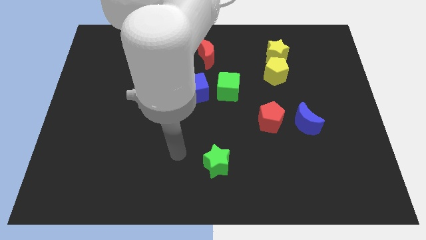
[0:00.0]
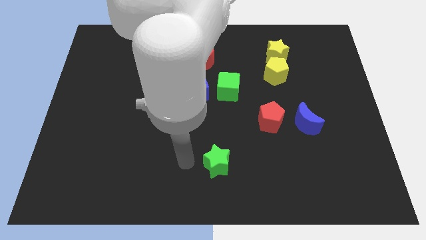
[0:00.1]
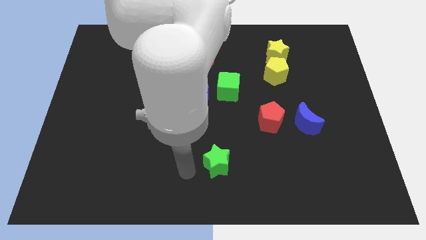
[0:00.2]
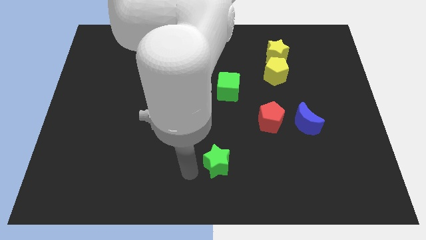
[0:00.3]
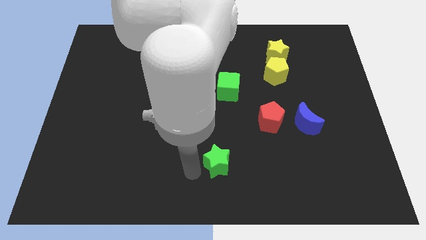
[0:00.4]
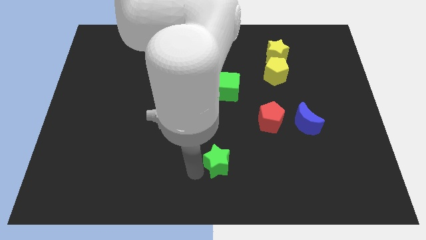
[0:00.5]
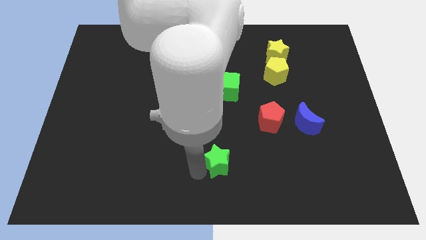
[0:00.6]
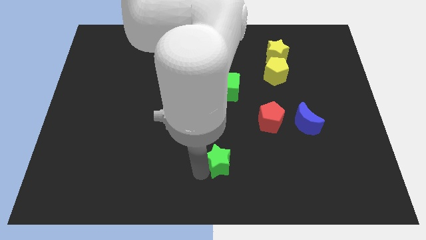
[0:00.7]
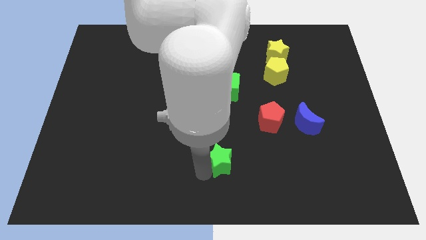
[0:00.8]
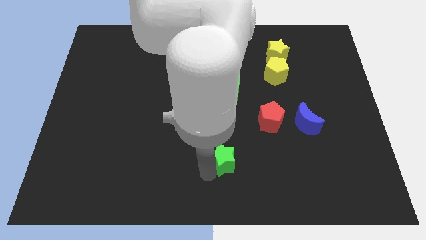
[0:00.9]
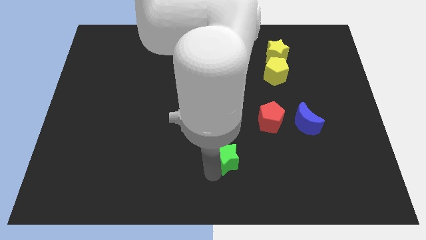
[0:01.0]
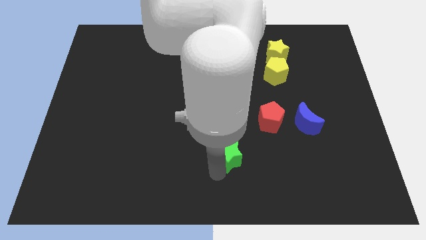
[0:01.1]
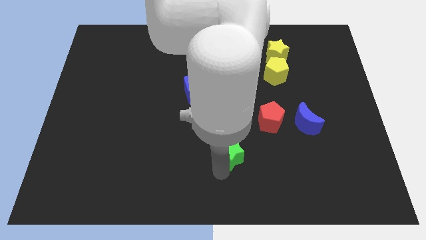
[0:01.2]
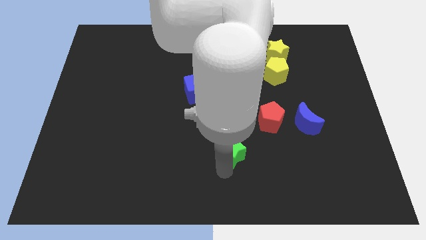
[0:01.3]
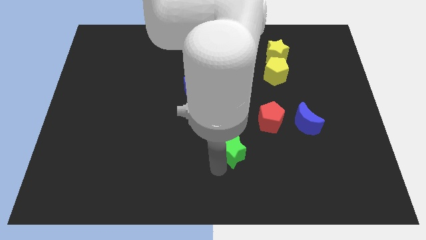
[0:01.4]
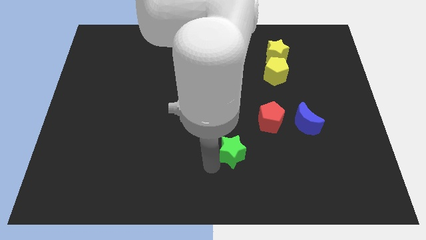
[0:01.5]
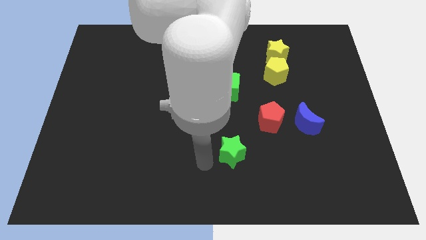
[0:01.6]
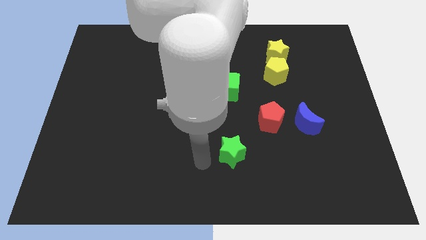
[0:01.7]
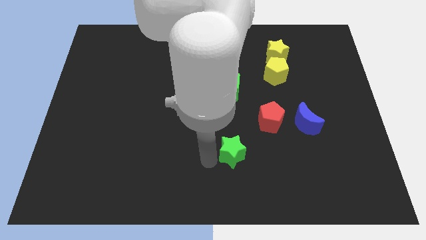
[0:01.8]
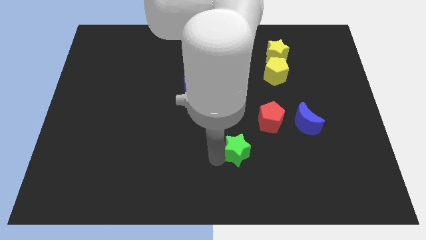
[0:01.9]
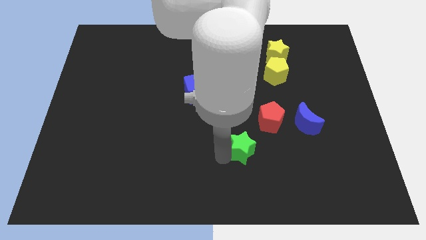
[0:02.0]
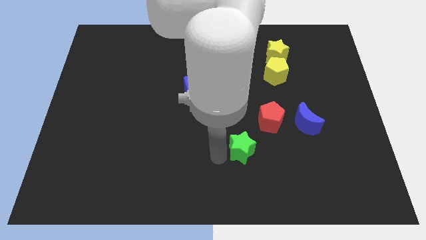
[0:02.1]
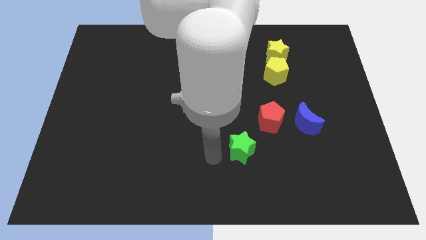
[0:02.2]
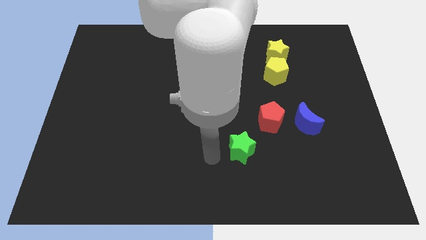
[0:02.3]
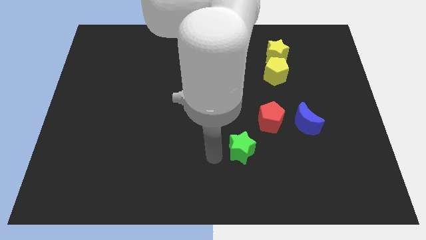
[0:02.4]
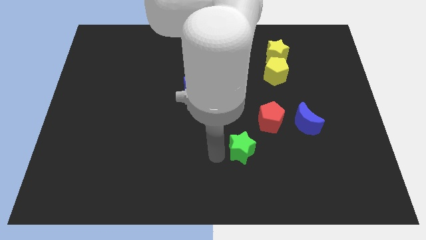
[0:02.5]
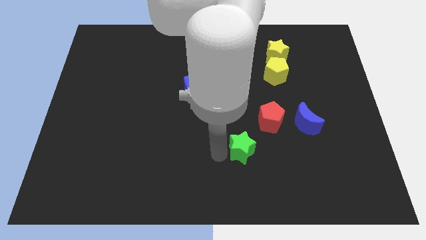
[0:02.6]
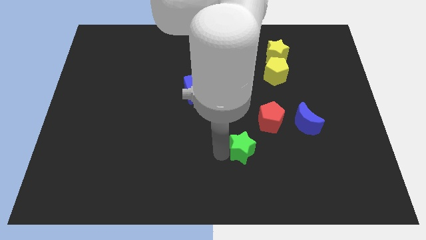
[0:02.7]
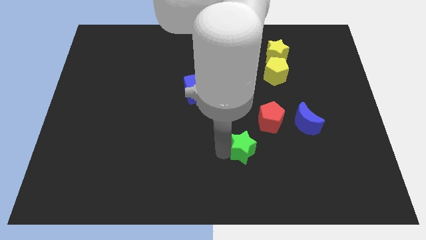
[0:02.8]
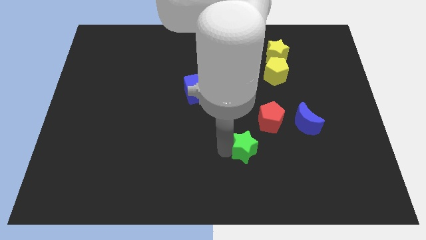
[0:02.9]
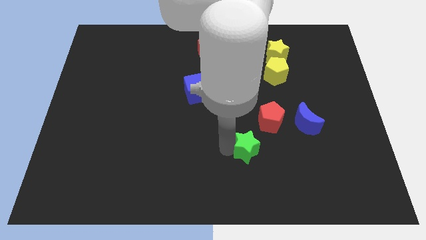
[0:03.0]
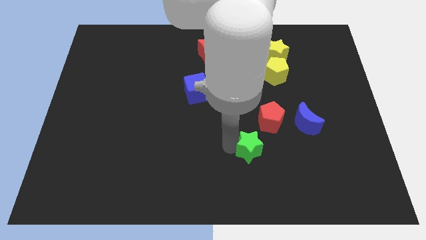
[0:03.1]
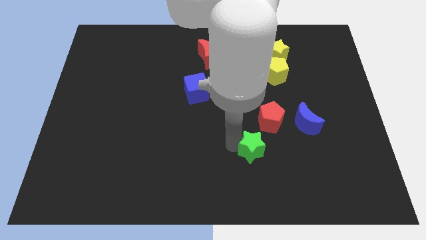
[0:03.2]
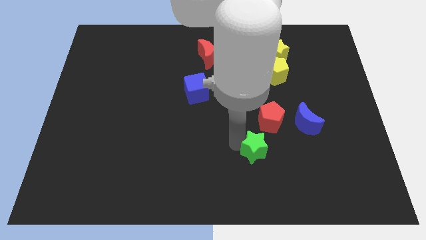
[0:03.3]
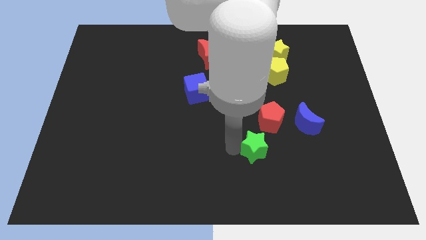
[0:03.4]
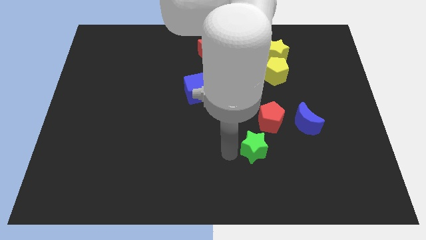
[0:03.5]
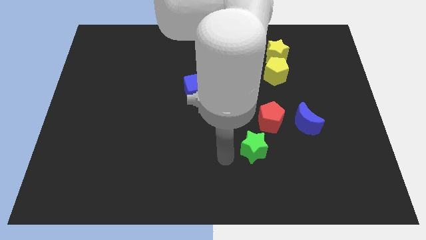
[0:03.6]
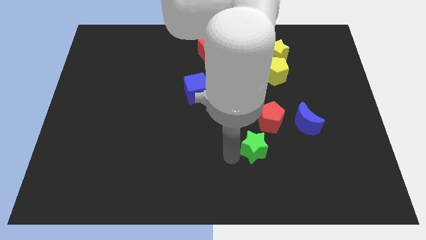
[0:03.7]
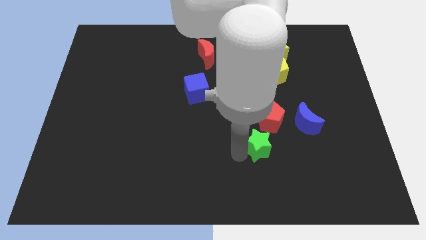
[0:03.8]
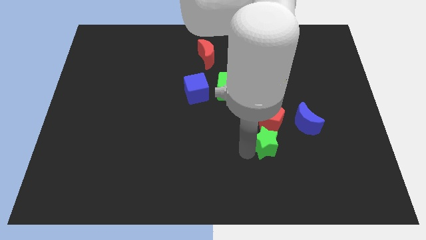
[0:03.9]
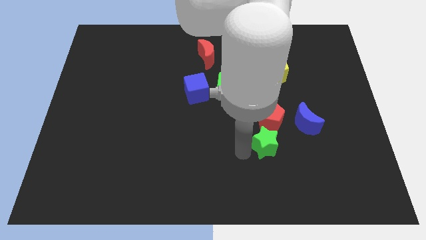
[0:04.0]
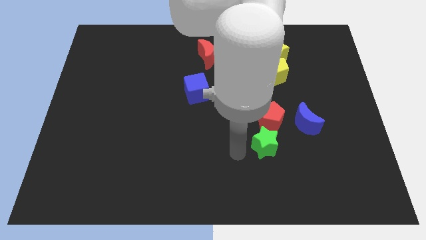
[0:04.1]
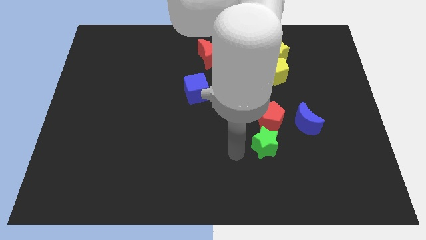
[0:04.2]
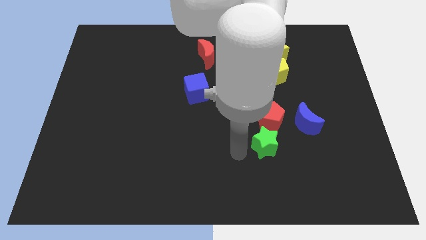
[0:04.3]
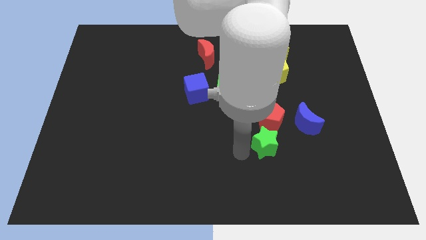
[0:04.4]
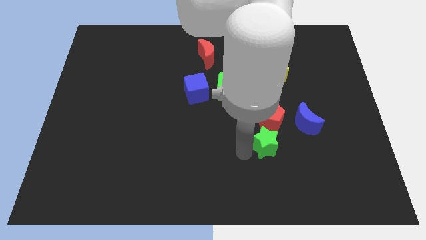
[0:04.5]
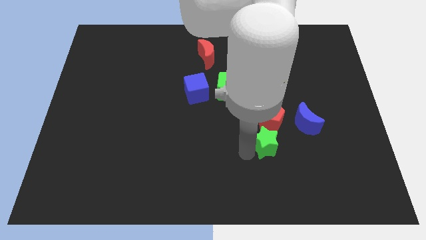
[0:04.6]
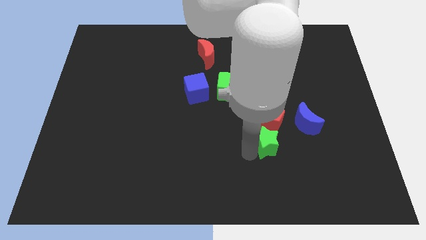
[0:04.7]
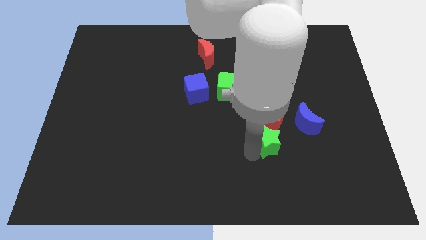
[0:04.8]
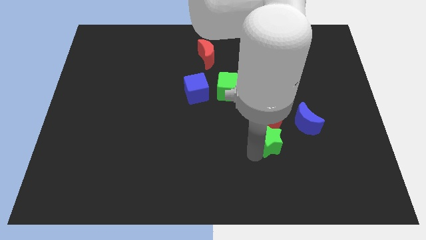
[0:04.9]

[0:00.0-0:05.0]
move the green star diagonally down and to the right of the red pentagon

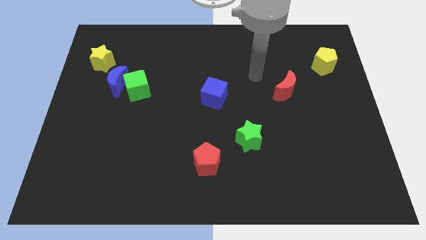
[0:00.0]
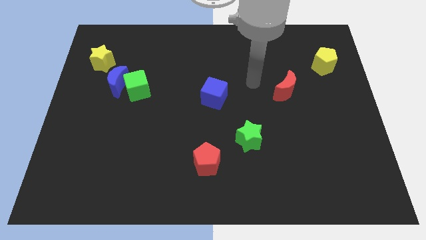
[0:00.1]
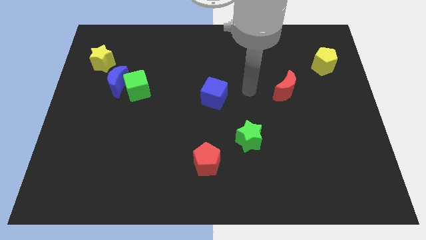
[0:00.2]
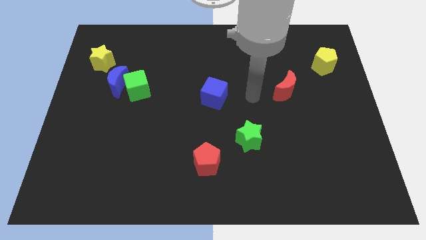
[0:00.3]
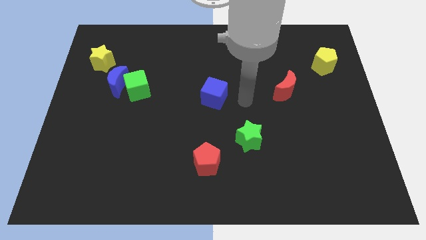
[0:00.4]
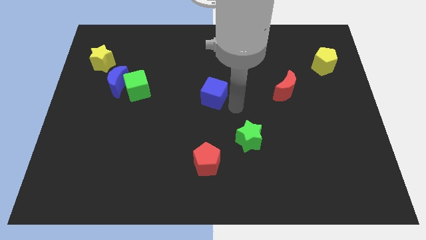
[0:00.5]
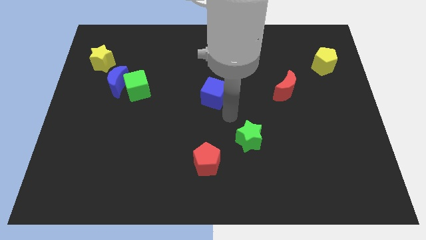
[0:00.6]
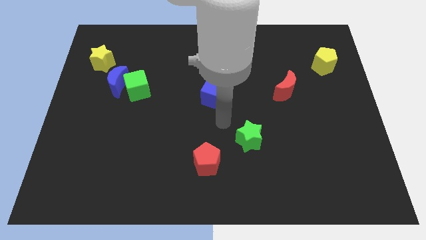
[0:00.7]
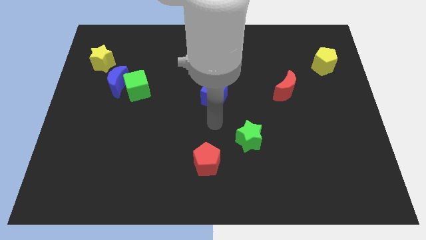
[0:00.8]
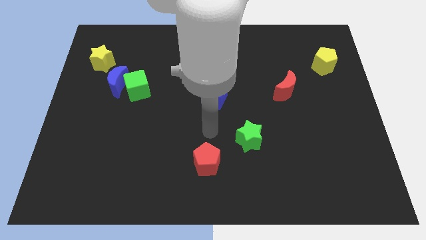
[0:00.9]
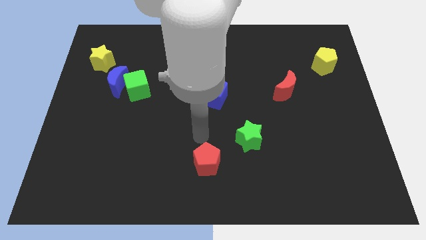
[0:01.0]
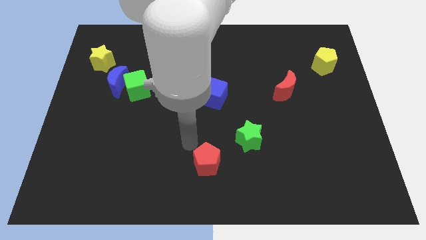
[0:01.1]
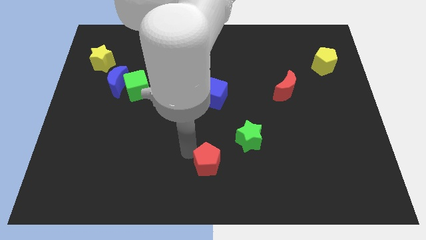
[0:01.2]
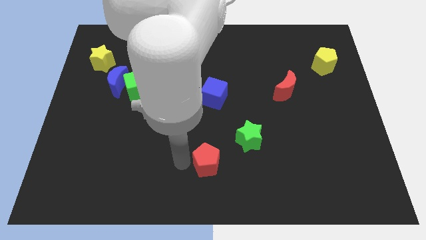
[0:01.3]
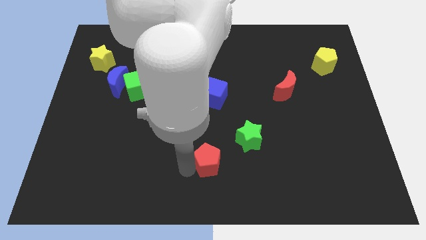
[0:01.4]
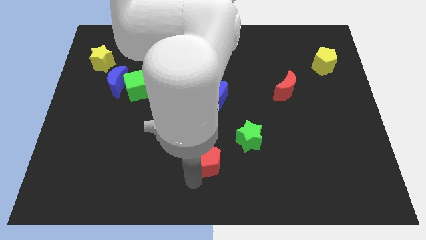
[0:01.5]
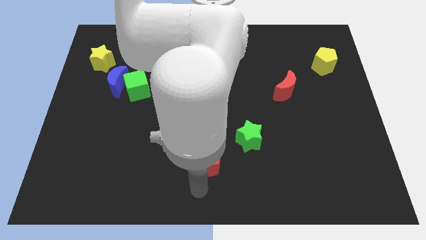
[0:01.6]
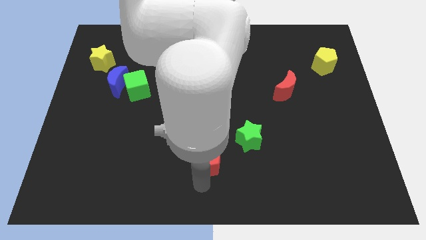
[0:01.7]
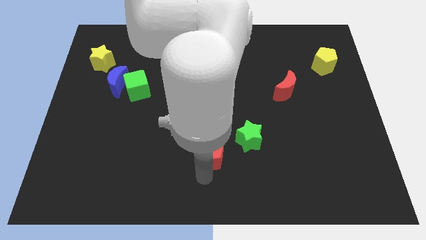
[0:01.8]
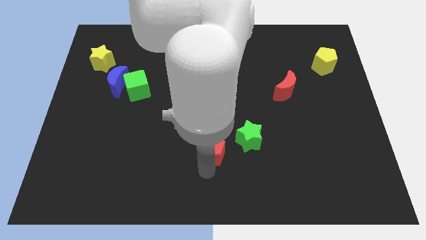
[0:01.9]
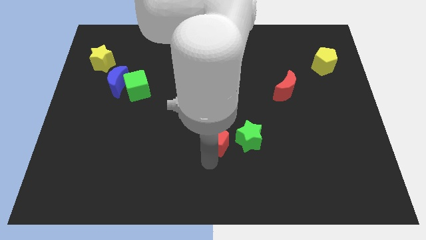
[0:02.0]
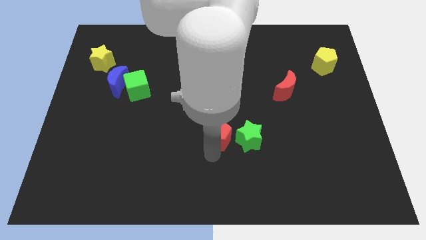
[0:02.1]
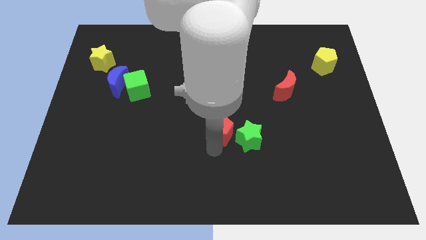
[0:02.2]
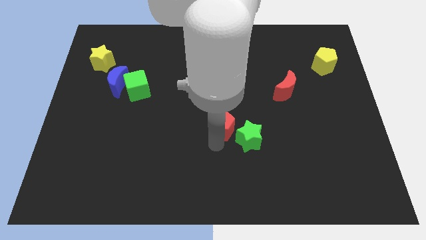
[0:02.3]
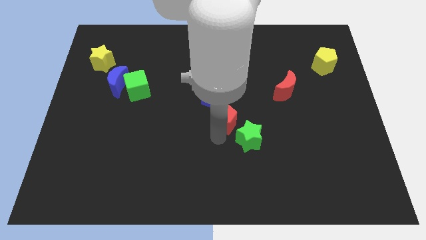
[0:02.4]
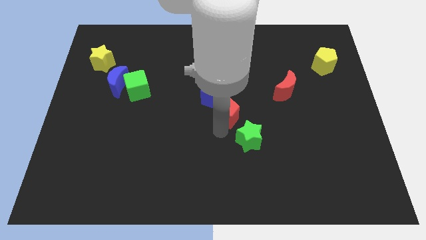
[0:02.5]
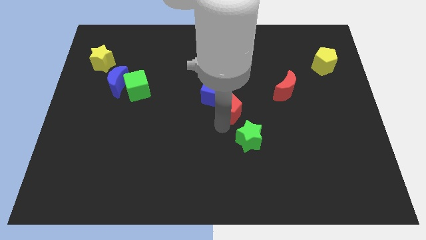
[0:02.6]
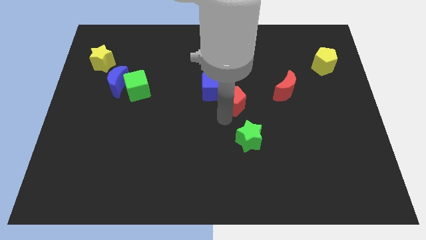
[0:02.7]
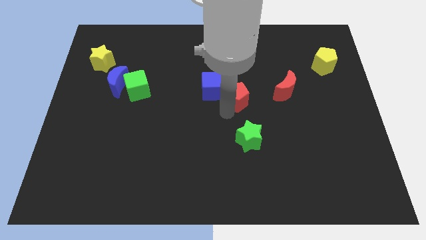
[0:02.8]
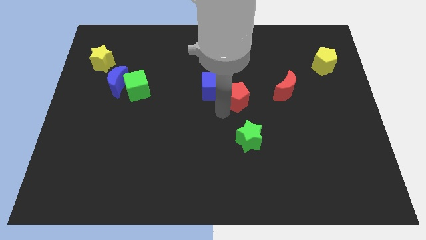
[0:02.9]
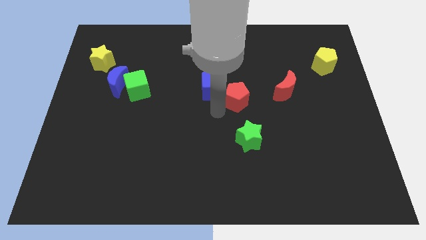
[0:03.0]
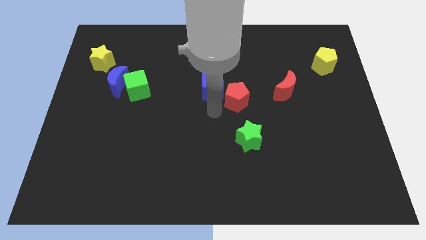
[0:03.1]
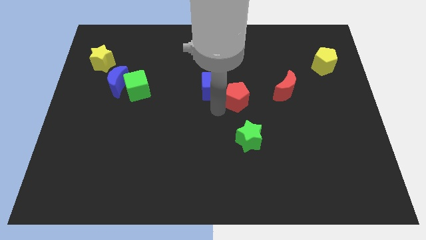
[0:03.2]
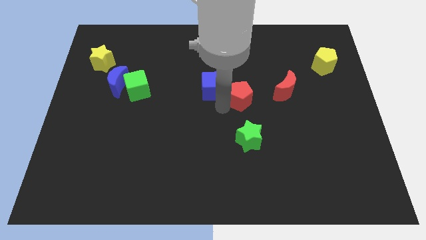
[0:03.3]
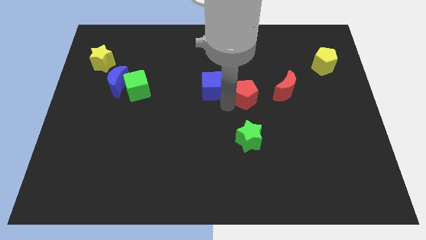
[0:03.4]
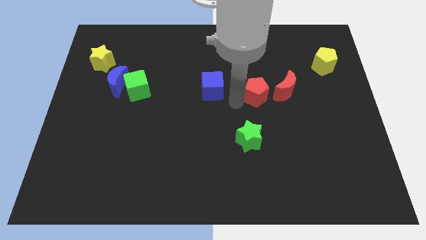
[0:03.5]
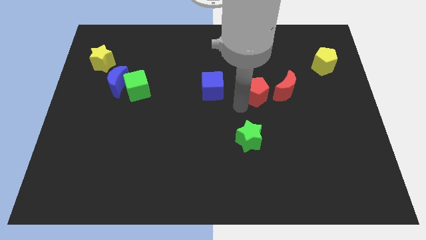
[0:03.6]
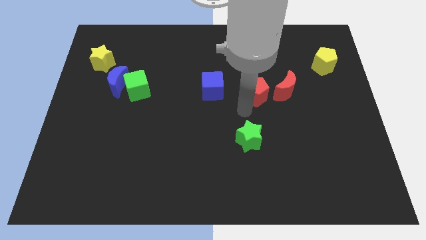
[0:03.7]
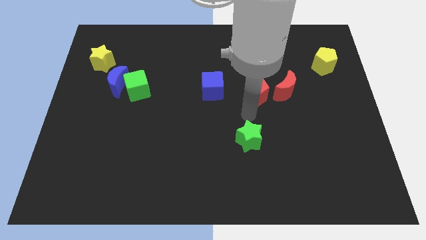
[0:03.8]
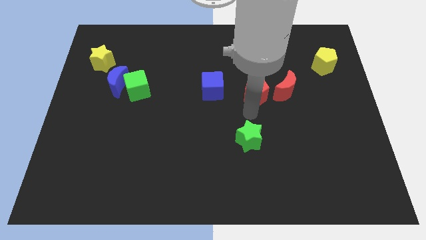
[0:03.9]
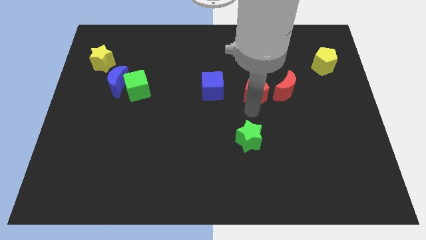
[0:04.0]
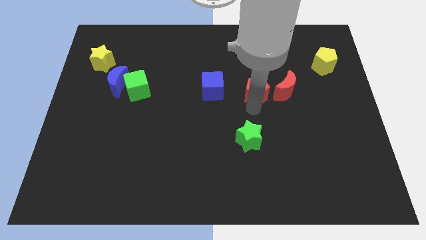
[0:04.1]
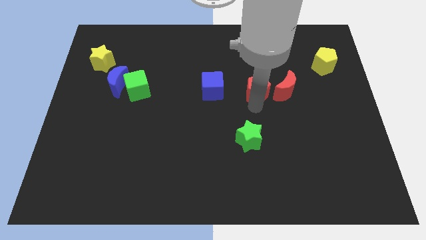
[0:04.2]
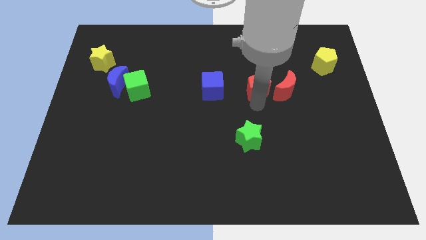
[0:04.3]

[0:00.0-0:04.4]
move the red pentagon to the top left of the red moon
